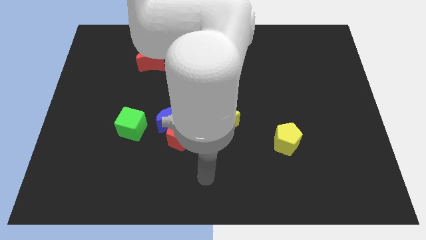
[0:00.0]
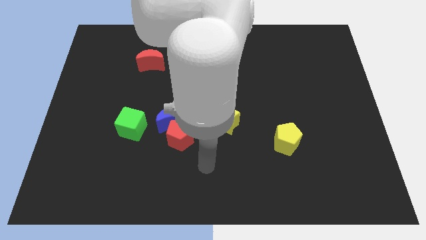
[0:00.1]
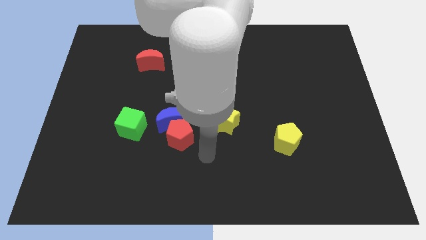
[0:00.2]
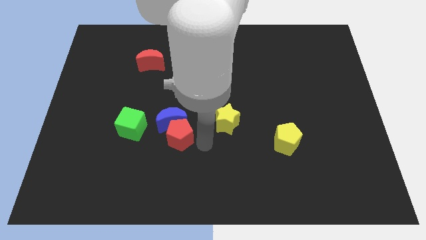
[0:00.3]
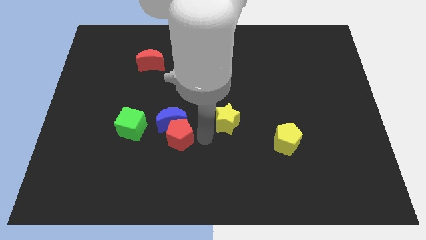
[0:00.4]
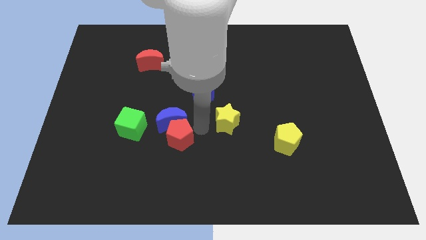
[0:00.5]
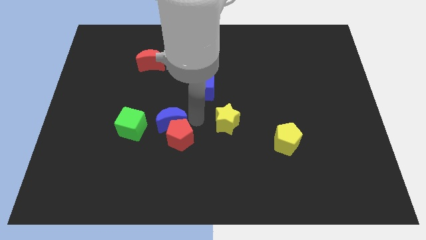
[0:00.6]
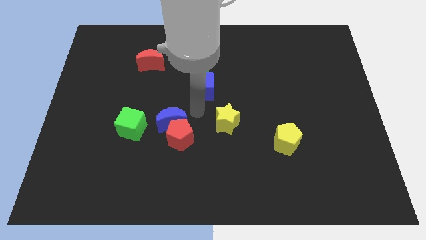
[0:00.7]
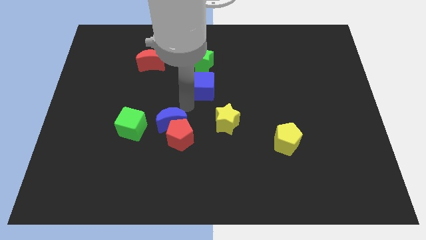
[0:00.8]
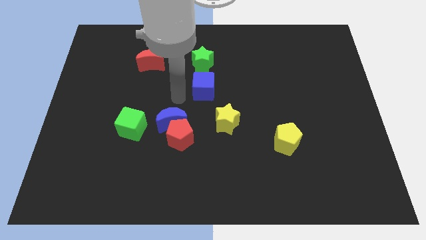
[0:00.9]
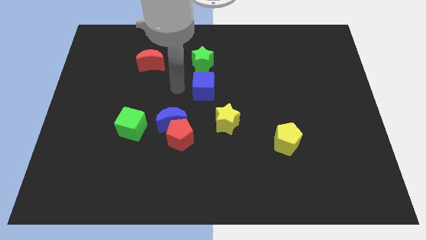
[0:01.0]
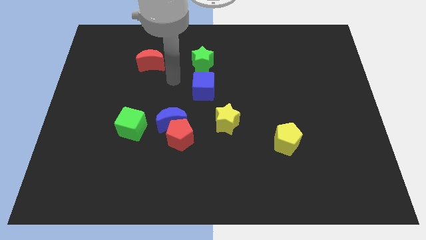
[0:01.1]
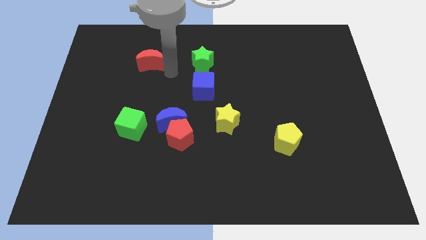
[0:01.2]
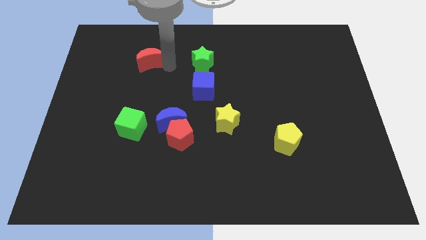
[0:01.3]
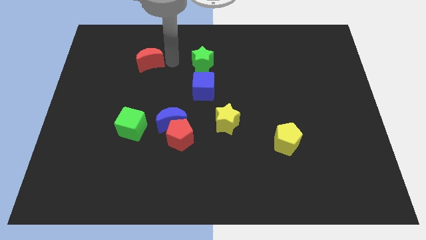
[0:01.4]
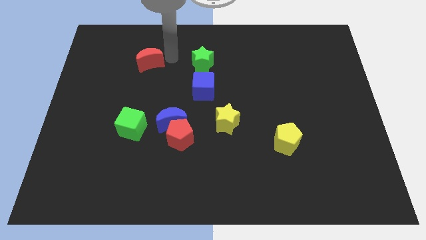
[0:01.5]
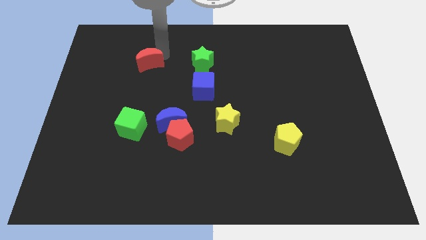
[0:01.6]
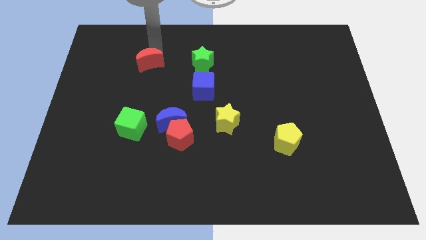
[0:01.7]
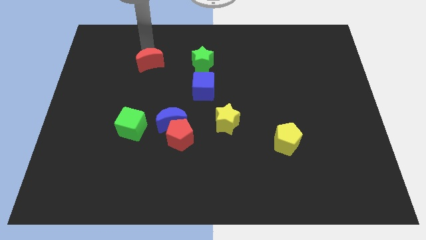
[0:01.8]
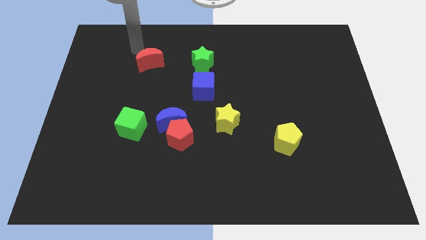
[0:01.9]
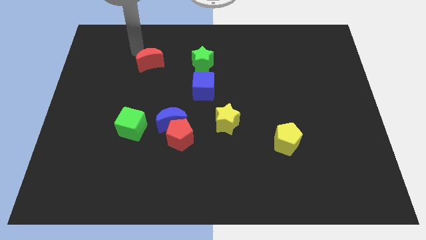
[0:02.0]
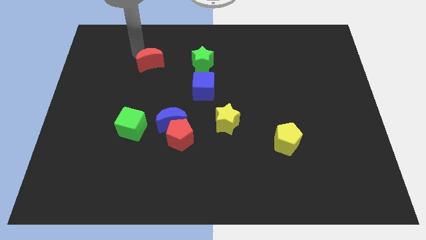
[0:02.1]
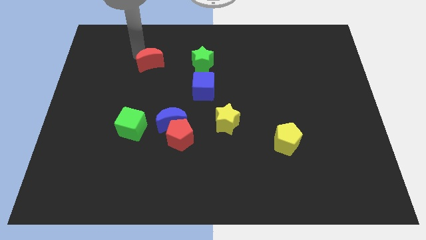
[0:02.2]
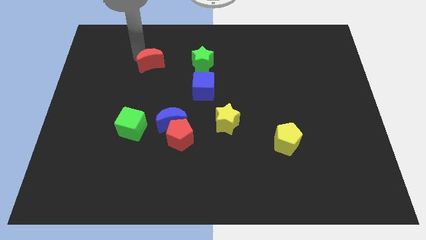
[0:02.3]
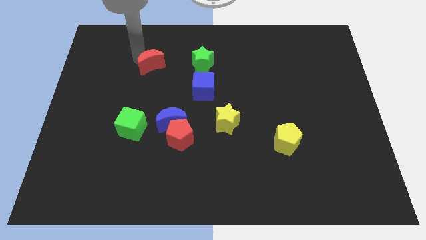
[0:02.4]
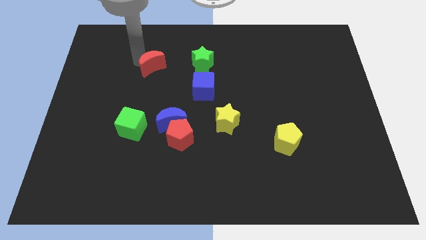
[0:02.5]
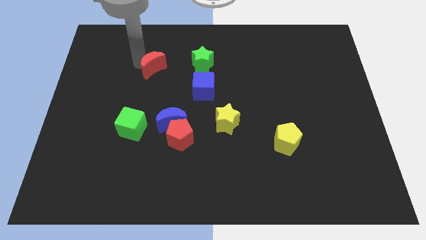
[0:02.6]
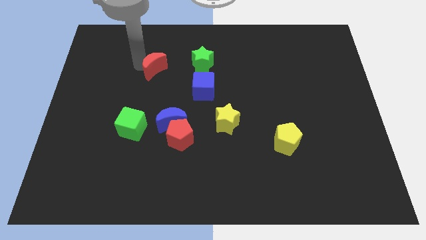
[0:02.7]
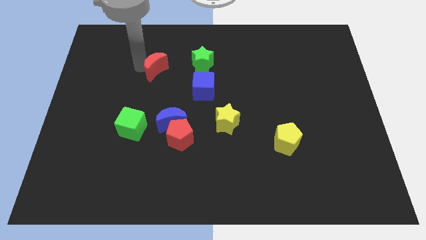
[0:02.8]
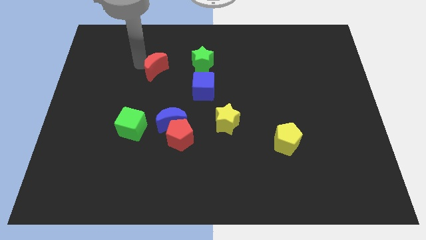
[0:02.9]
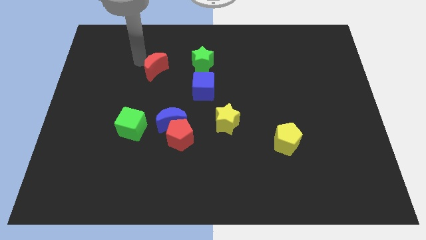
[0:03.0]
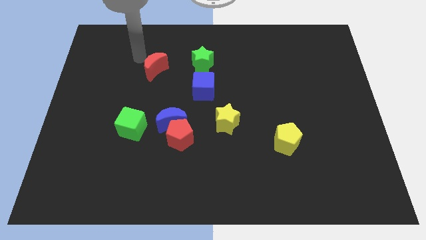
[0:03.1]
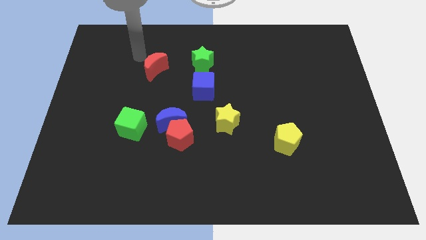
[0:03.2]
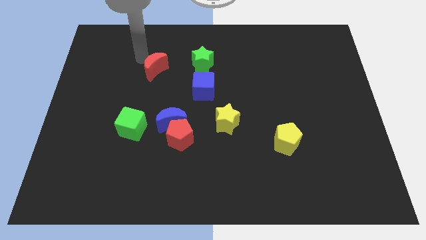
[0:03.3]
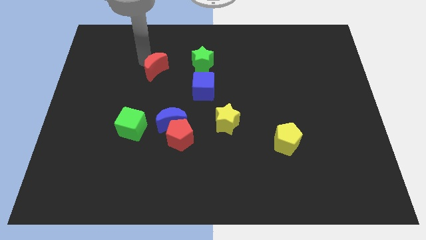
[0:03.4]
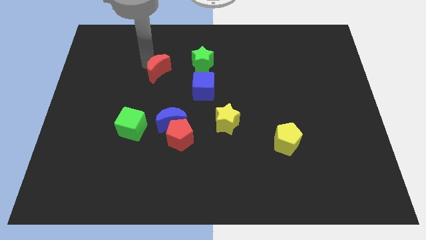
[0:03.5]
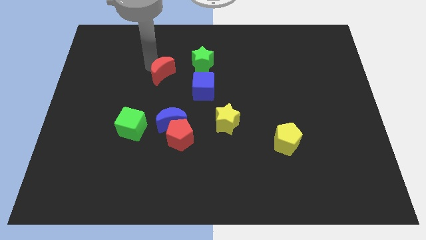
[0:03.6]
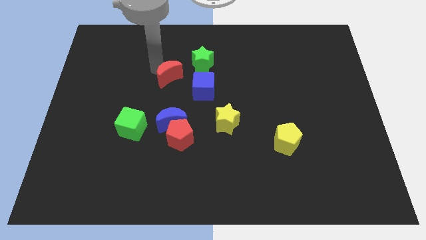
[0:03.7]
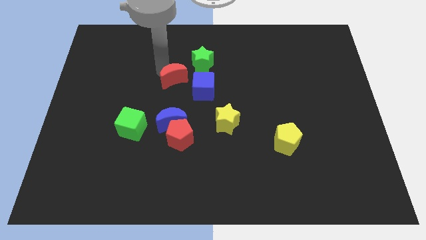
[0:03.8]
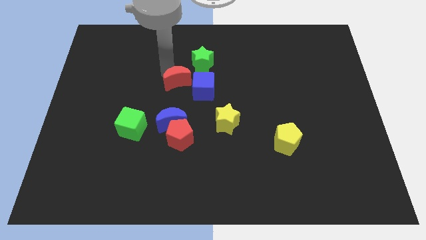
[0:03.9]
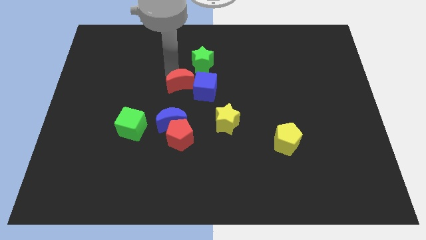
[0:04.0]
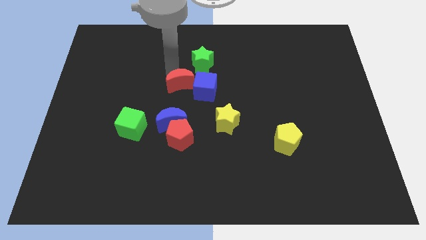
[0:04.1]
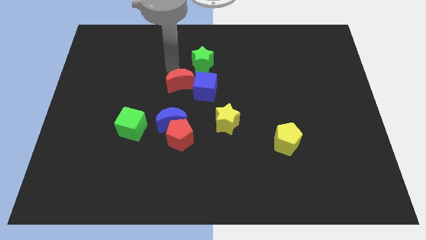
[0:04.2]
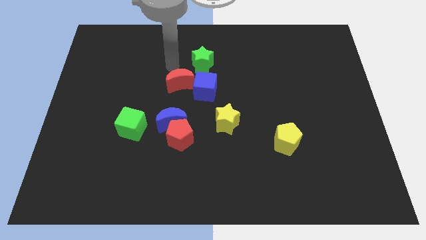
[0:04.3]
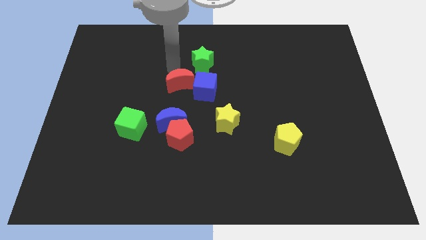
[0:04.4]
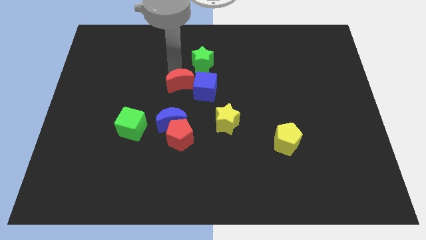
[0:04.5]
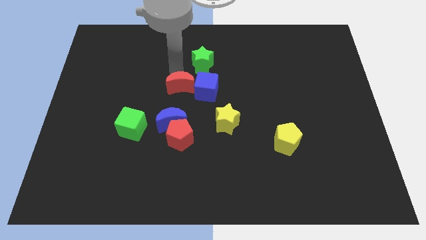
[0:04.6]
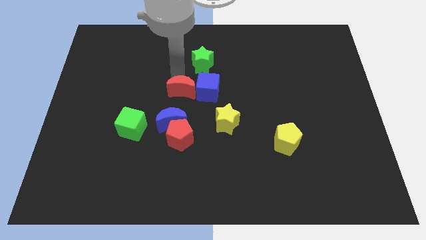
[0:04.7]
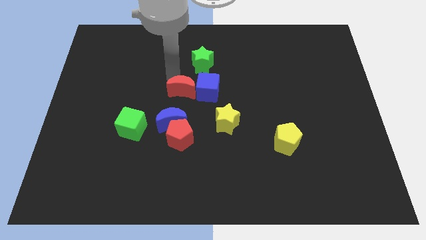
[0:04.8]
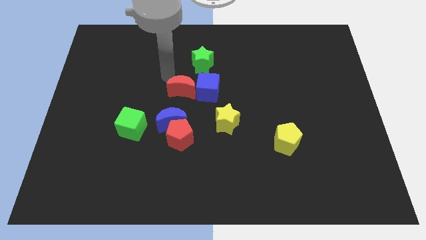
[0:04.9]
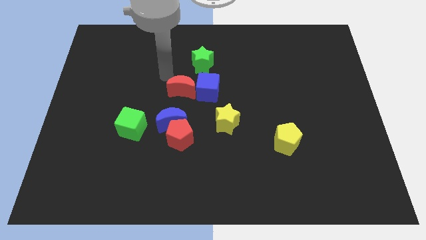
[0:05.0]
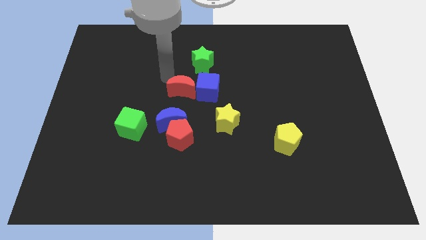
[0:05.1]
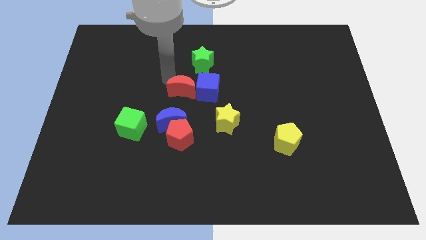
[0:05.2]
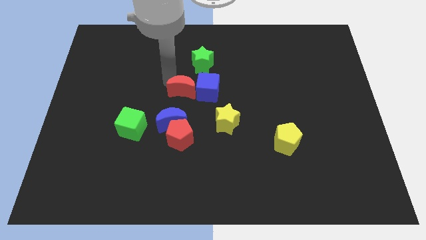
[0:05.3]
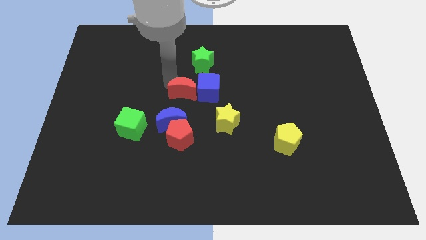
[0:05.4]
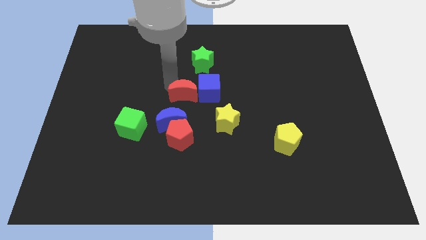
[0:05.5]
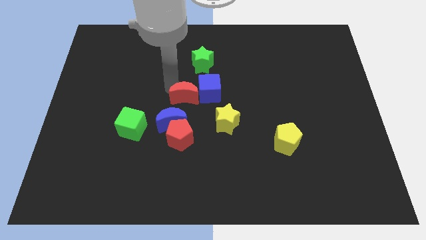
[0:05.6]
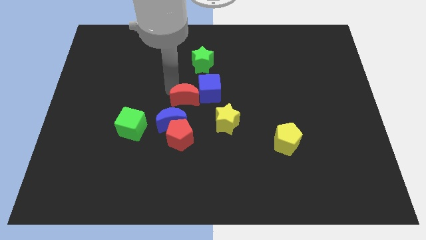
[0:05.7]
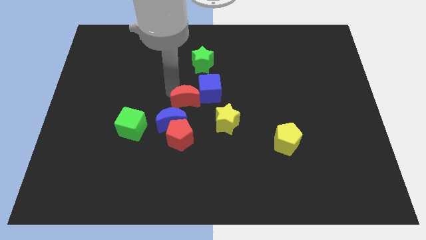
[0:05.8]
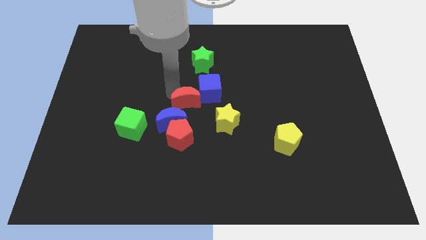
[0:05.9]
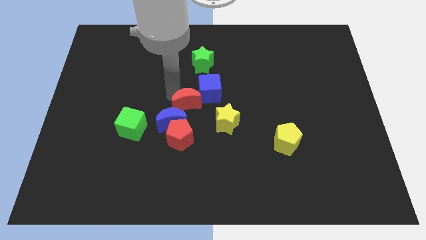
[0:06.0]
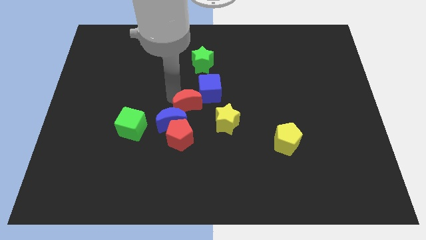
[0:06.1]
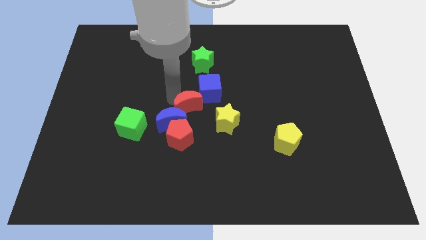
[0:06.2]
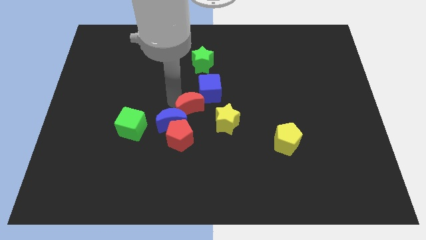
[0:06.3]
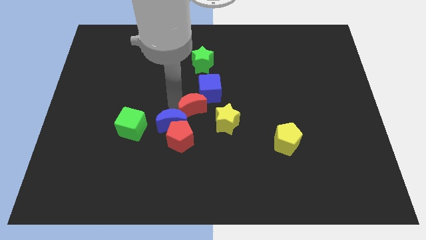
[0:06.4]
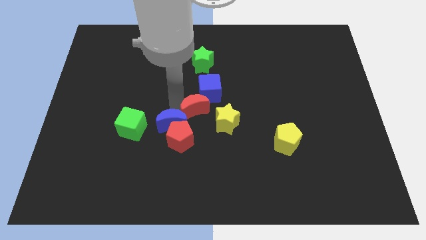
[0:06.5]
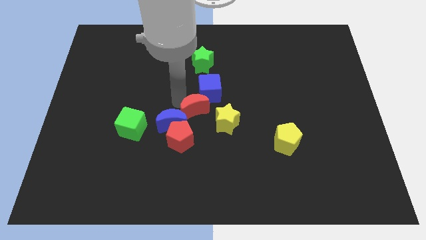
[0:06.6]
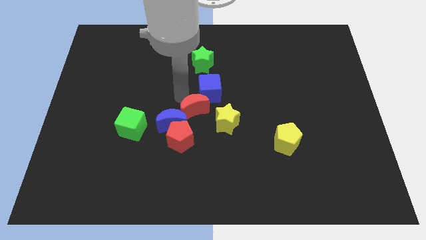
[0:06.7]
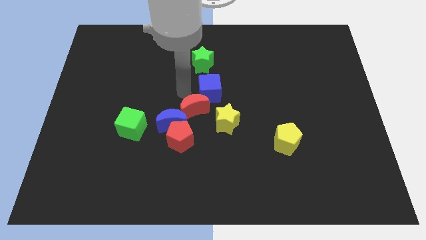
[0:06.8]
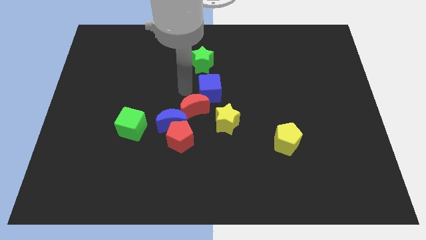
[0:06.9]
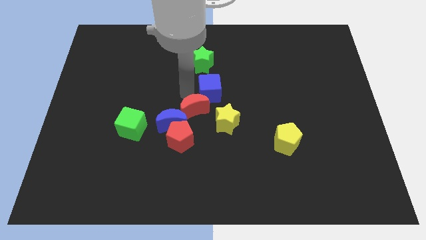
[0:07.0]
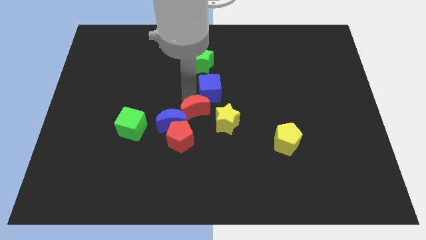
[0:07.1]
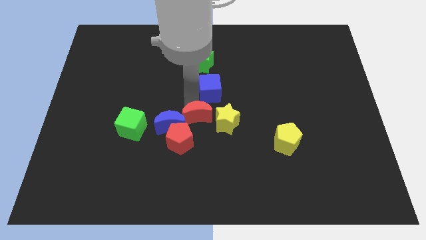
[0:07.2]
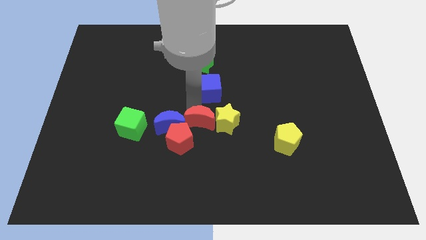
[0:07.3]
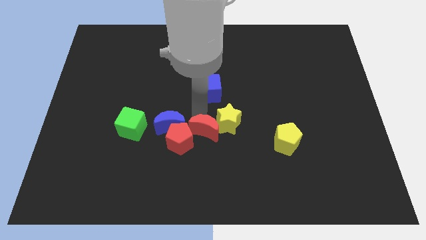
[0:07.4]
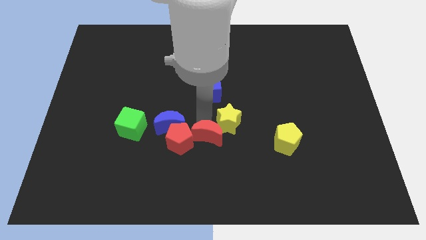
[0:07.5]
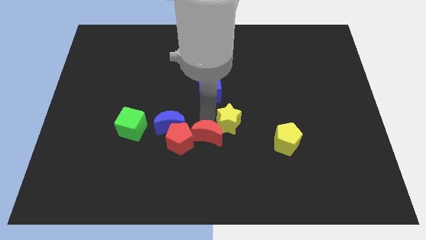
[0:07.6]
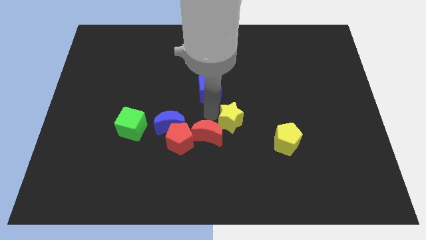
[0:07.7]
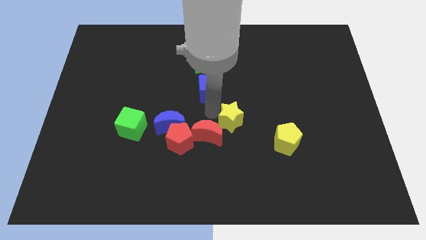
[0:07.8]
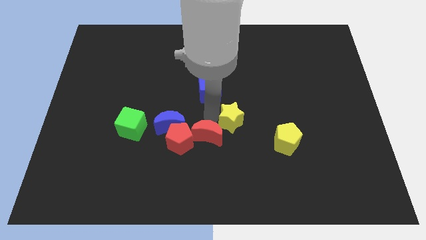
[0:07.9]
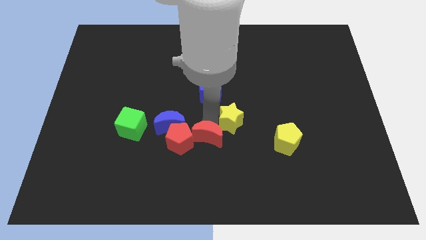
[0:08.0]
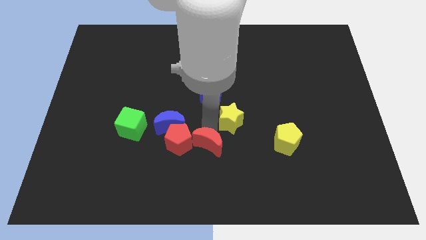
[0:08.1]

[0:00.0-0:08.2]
push the red moon diagonally down and to the right of the red pentagon
